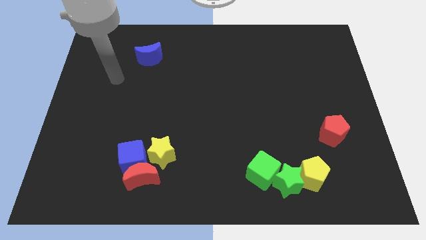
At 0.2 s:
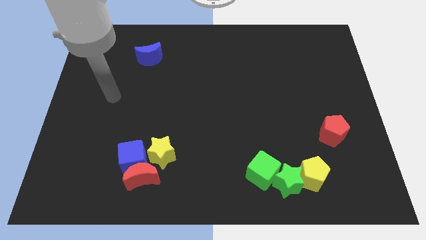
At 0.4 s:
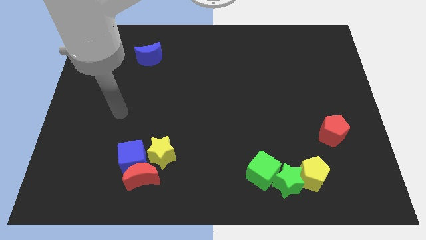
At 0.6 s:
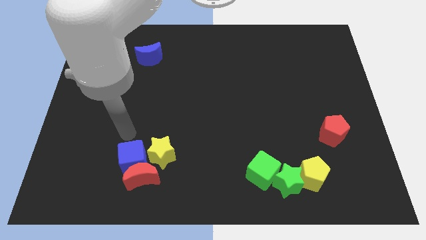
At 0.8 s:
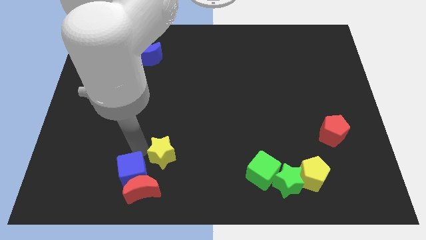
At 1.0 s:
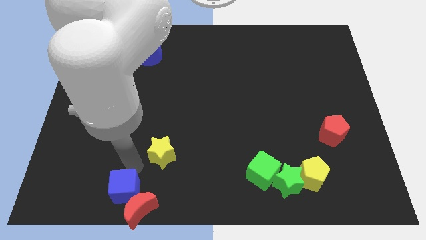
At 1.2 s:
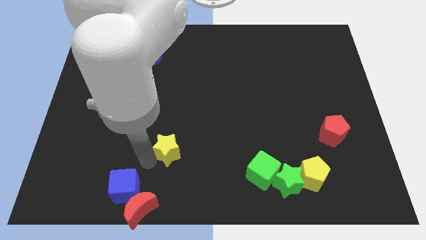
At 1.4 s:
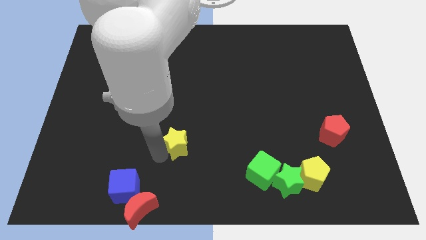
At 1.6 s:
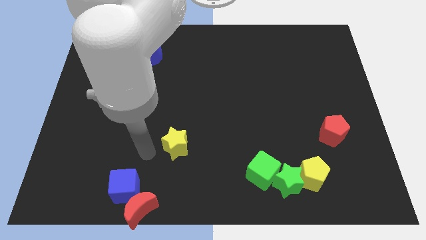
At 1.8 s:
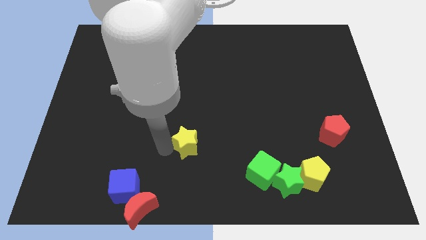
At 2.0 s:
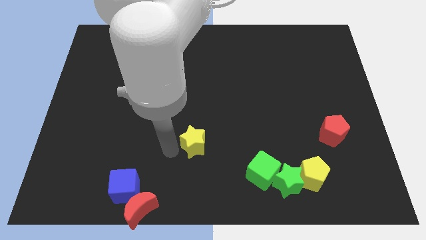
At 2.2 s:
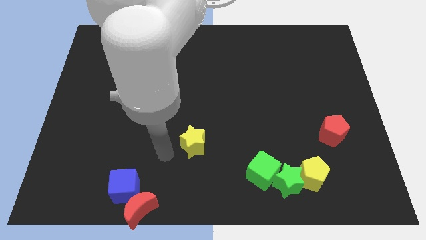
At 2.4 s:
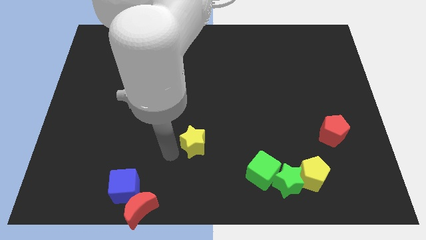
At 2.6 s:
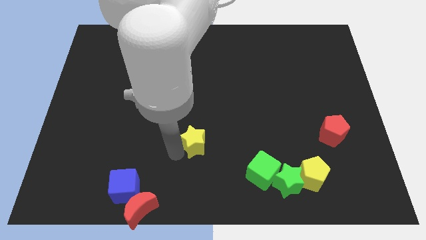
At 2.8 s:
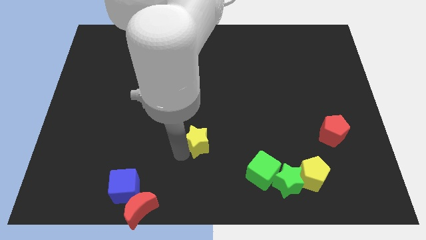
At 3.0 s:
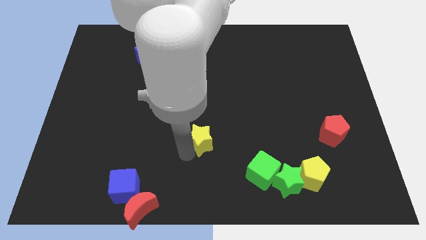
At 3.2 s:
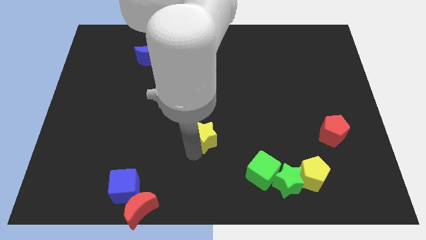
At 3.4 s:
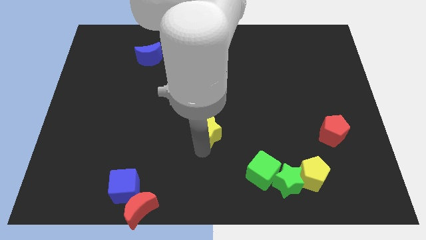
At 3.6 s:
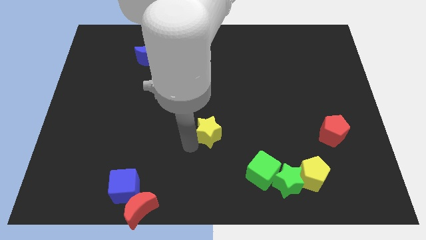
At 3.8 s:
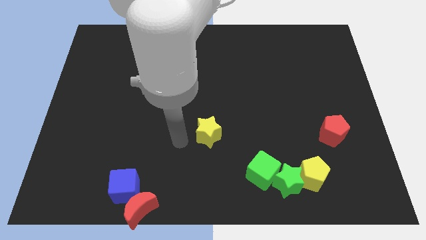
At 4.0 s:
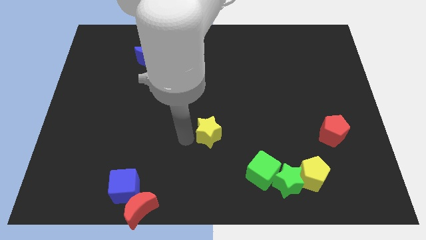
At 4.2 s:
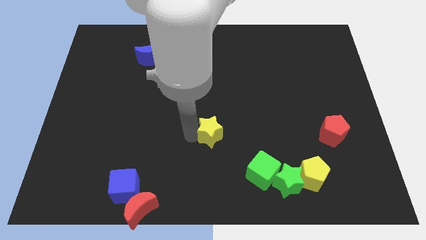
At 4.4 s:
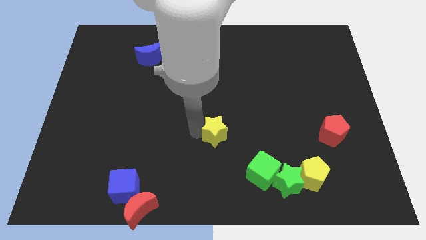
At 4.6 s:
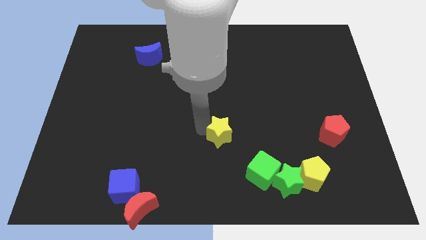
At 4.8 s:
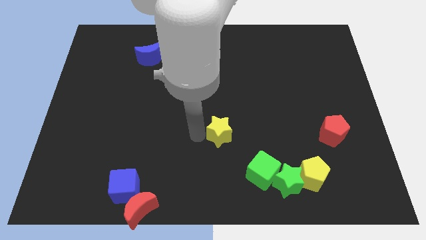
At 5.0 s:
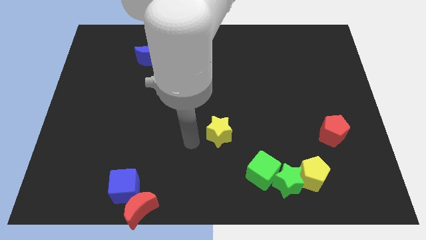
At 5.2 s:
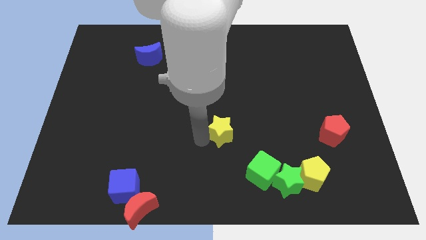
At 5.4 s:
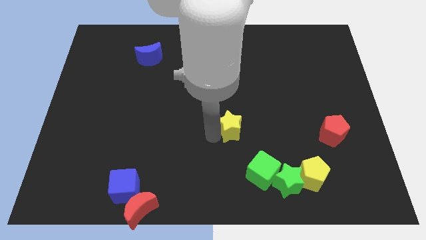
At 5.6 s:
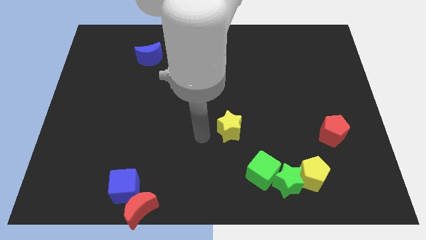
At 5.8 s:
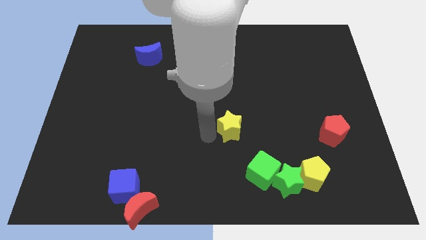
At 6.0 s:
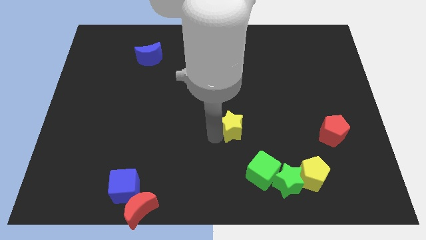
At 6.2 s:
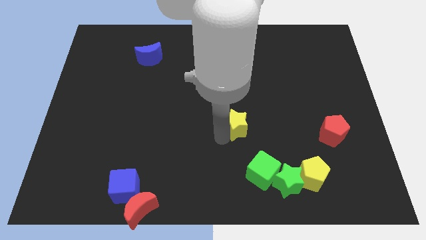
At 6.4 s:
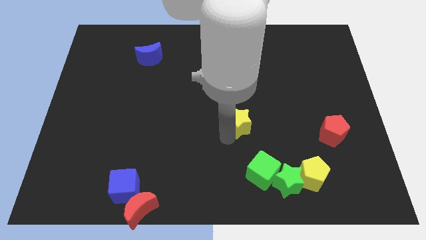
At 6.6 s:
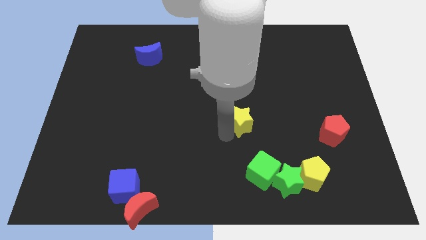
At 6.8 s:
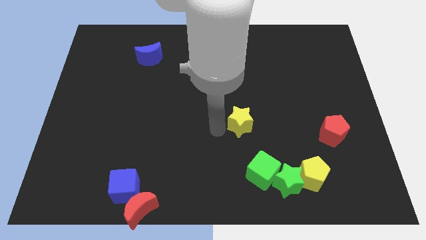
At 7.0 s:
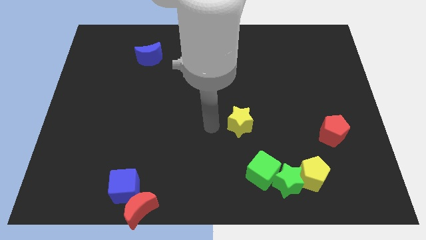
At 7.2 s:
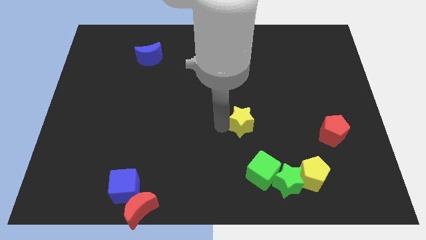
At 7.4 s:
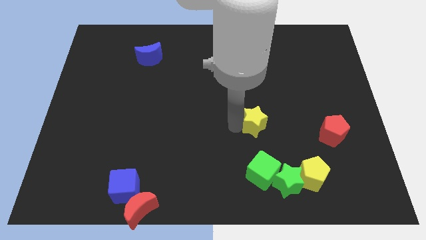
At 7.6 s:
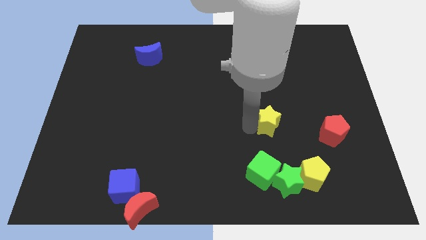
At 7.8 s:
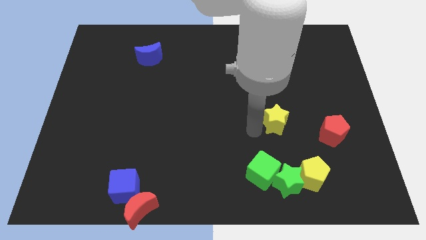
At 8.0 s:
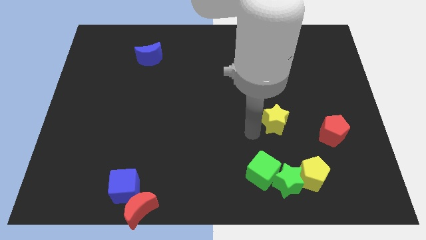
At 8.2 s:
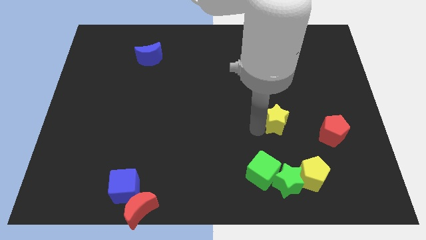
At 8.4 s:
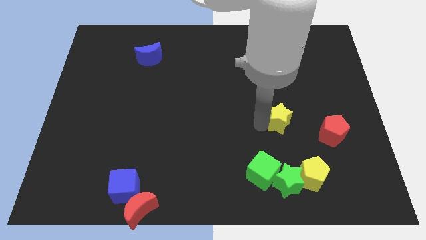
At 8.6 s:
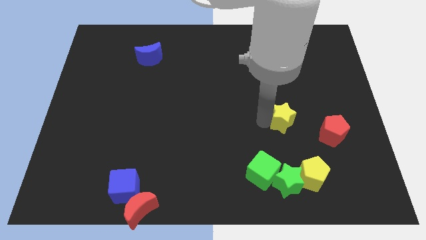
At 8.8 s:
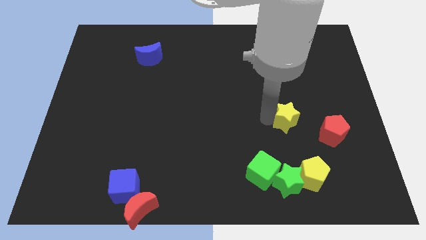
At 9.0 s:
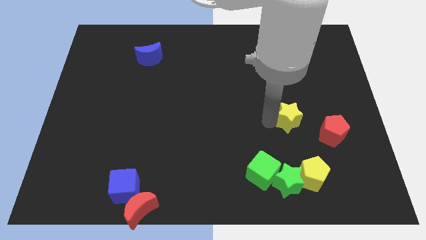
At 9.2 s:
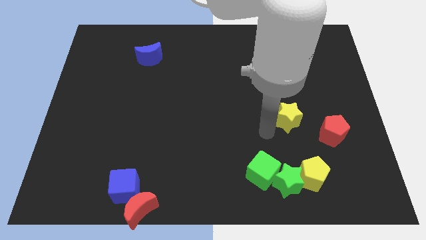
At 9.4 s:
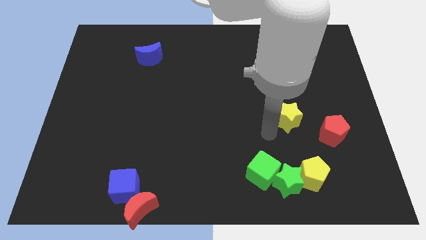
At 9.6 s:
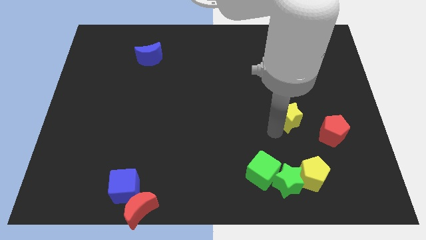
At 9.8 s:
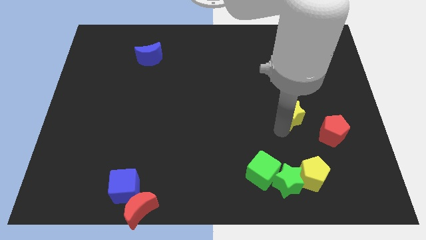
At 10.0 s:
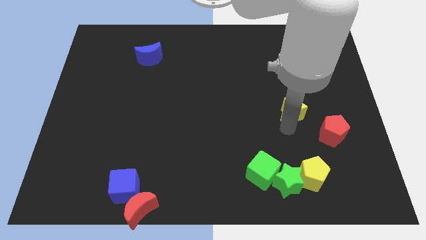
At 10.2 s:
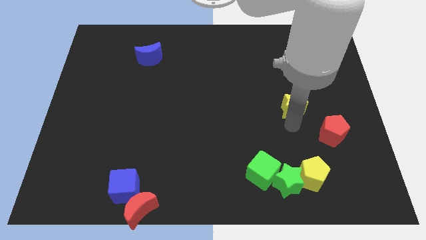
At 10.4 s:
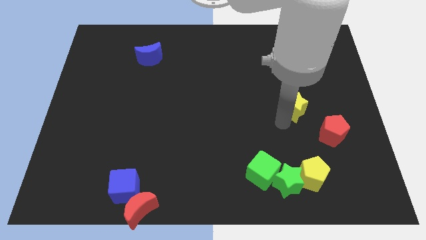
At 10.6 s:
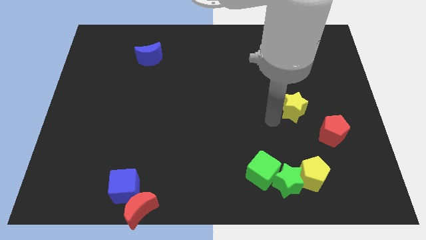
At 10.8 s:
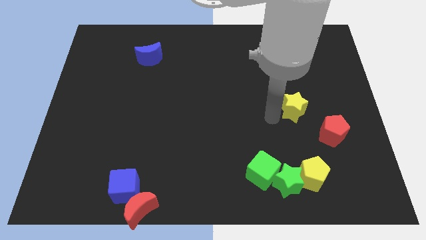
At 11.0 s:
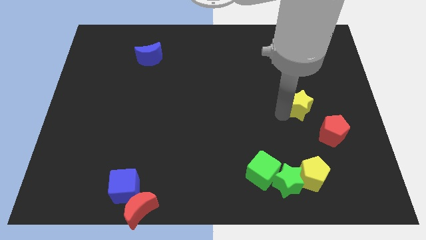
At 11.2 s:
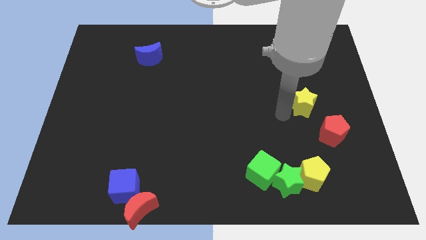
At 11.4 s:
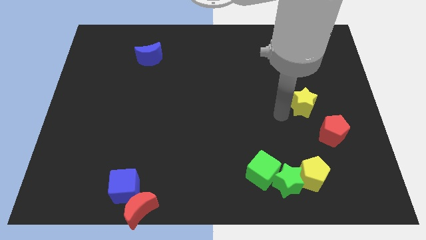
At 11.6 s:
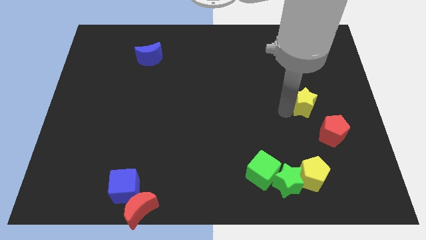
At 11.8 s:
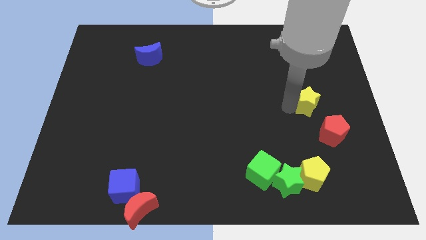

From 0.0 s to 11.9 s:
slide the yellow star to the top of the red pentagon

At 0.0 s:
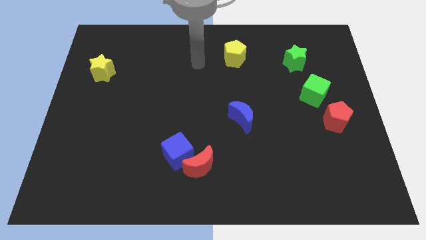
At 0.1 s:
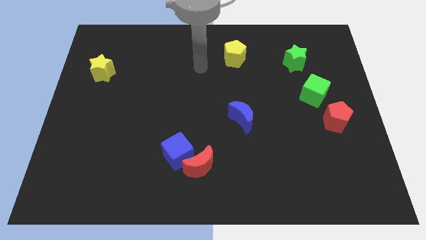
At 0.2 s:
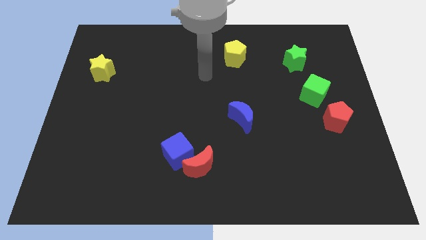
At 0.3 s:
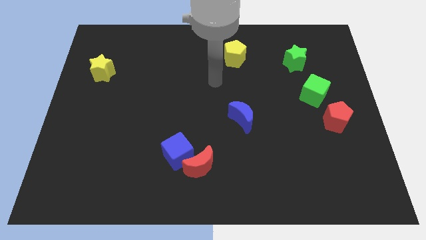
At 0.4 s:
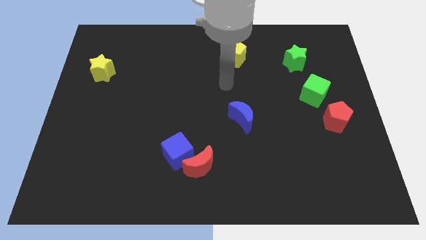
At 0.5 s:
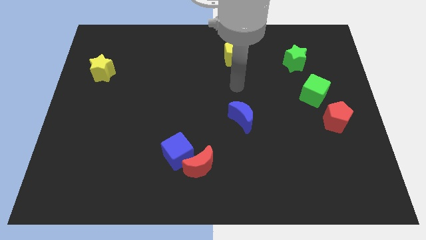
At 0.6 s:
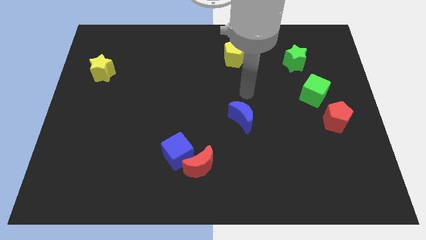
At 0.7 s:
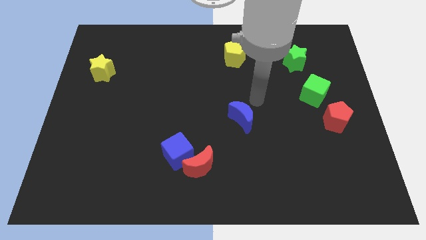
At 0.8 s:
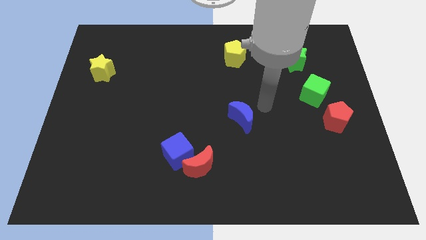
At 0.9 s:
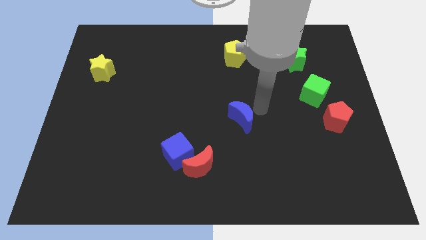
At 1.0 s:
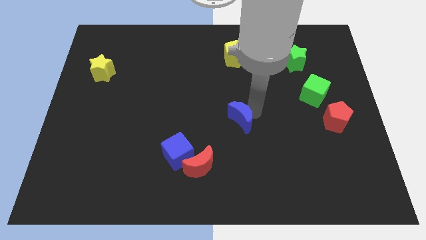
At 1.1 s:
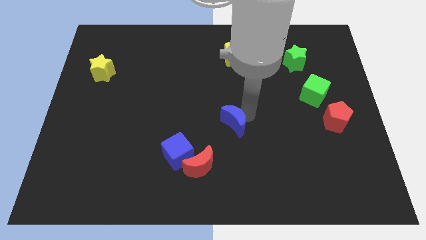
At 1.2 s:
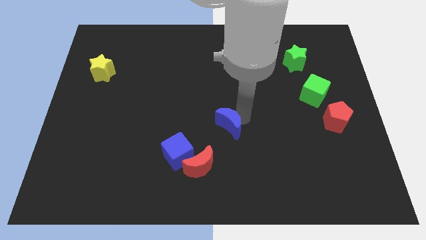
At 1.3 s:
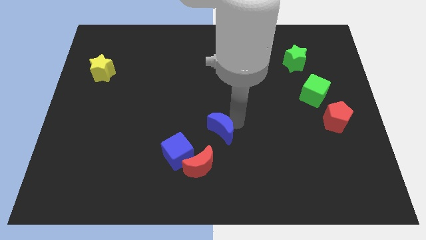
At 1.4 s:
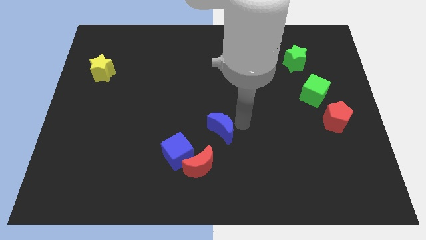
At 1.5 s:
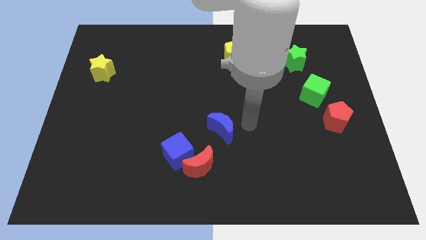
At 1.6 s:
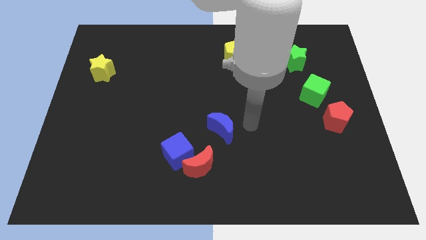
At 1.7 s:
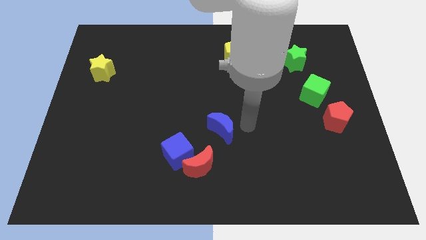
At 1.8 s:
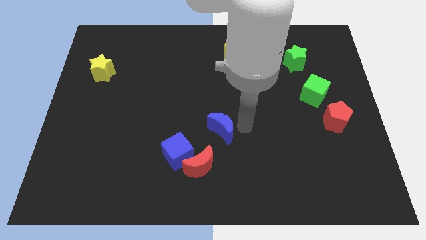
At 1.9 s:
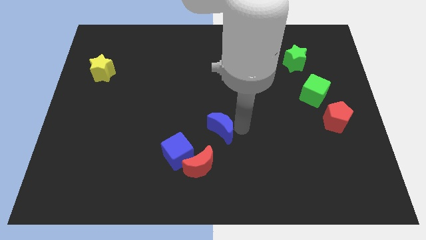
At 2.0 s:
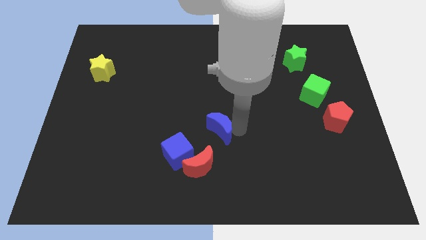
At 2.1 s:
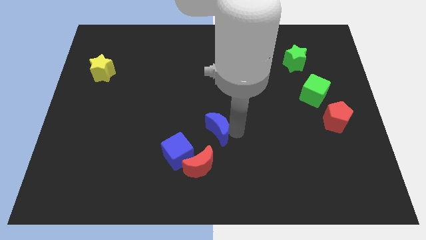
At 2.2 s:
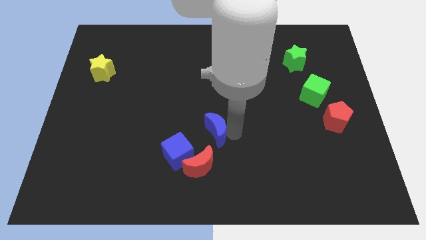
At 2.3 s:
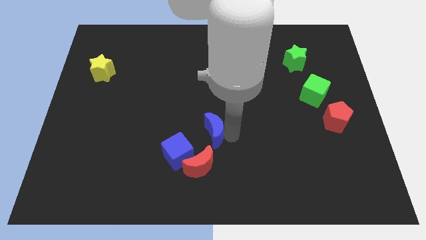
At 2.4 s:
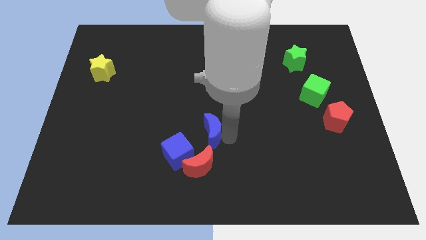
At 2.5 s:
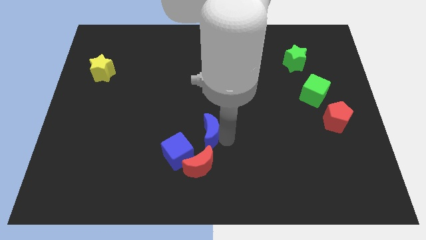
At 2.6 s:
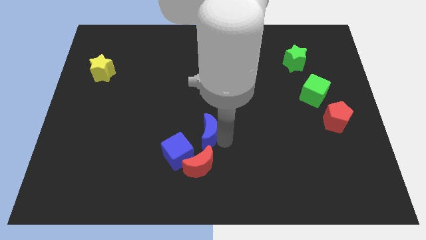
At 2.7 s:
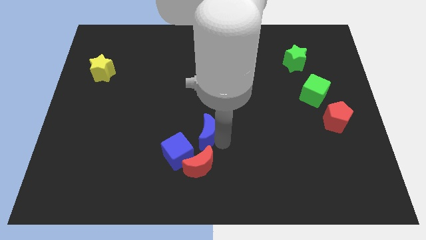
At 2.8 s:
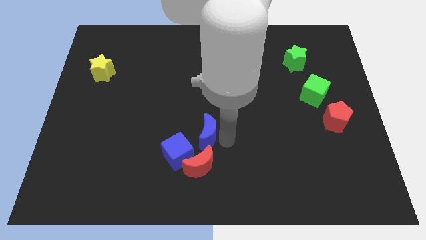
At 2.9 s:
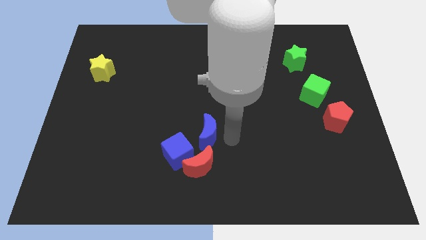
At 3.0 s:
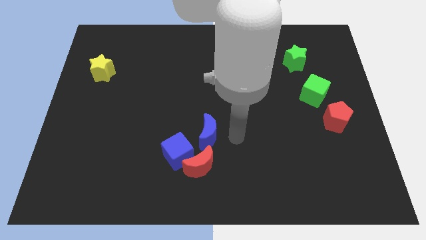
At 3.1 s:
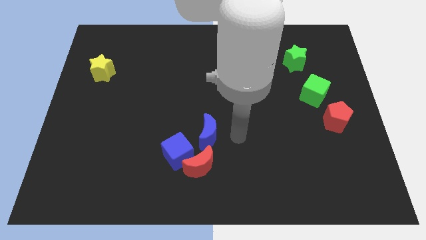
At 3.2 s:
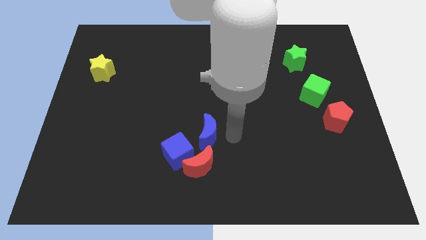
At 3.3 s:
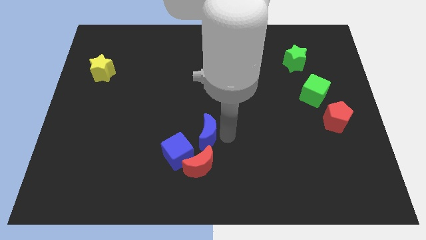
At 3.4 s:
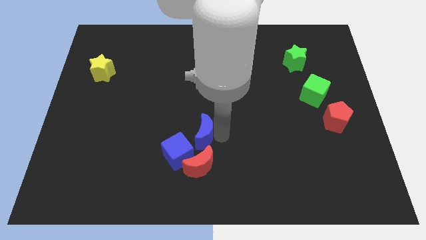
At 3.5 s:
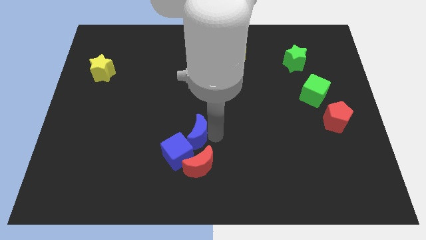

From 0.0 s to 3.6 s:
move the blue moon to the top left of the red moon
